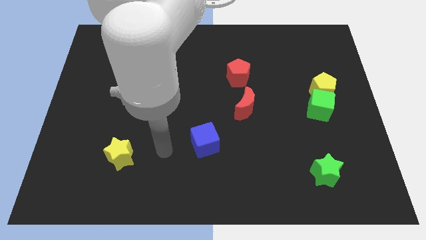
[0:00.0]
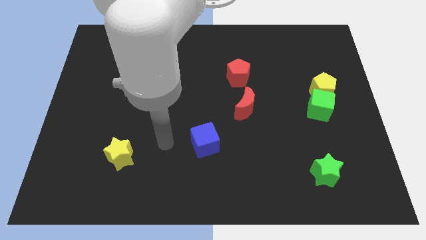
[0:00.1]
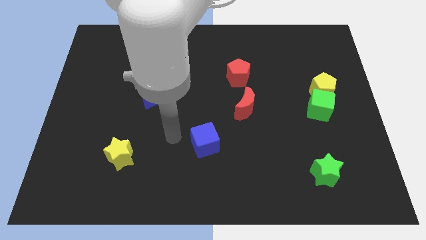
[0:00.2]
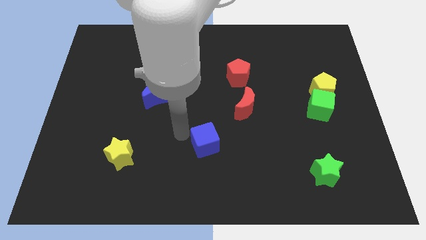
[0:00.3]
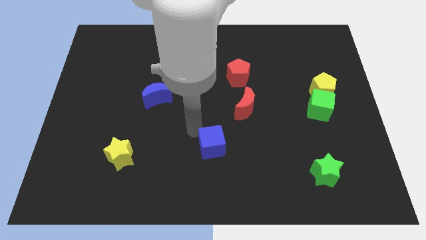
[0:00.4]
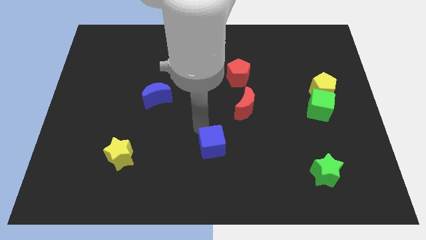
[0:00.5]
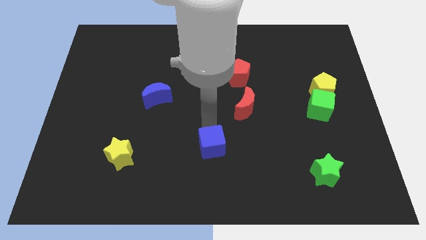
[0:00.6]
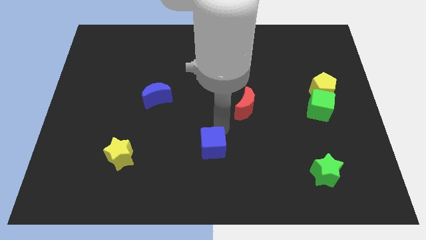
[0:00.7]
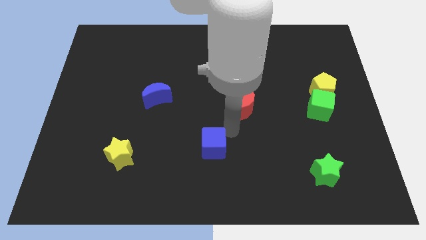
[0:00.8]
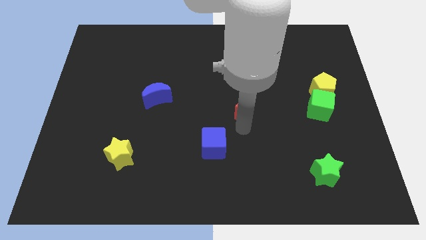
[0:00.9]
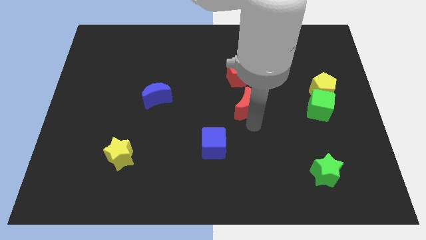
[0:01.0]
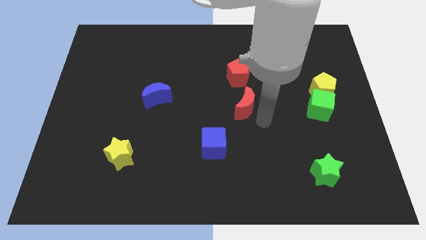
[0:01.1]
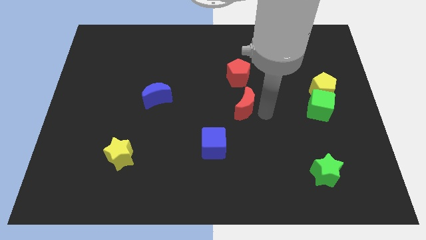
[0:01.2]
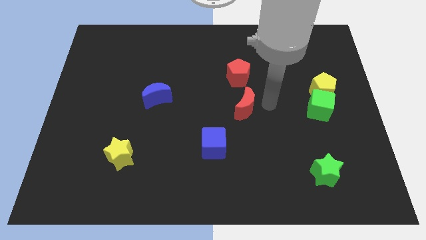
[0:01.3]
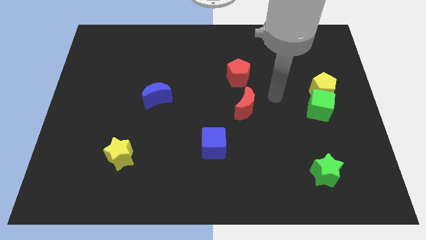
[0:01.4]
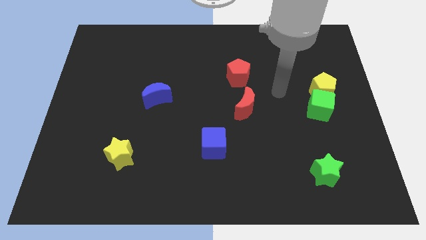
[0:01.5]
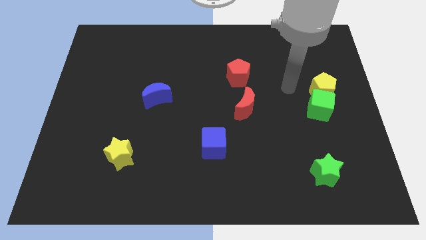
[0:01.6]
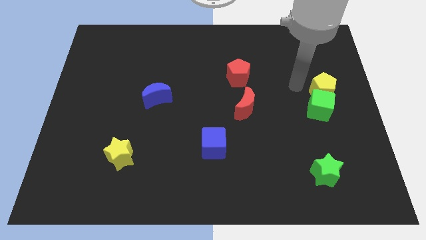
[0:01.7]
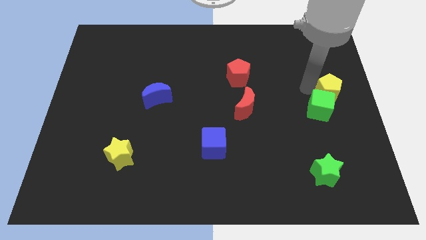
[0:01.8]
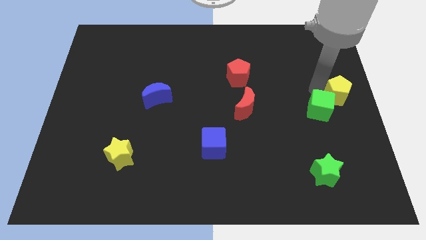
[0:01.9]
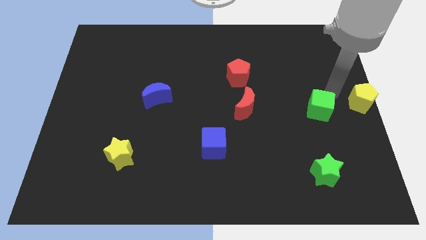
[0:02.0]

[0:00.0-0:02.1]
pull the green cube apart from the yellow pentagon

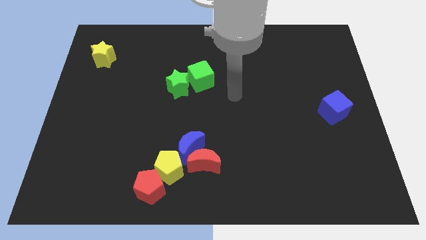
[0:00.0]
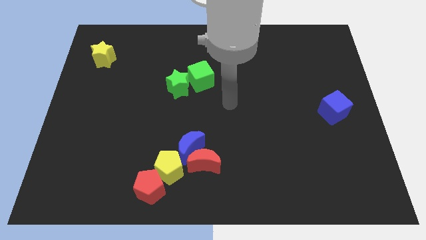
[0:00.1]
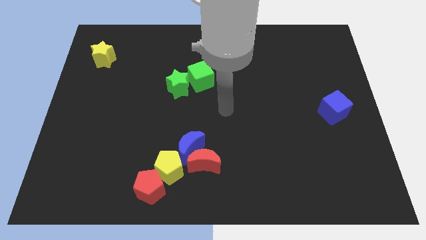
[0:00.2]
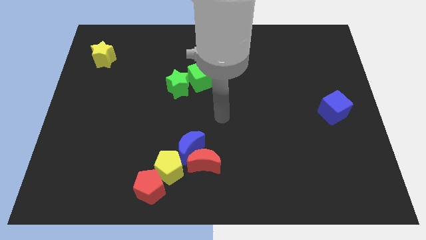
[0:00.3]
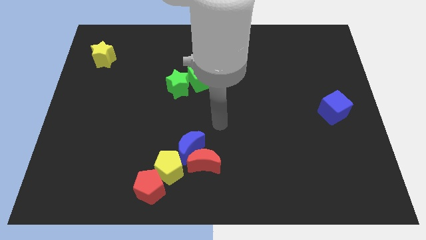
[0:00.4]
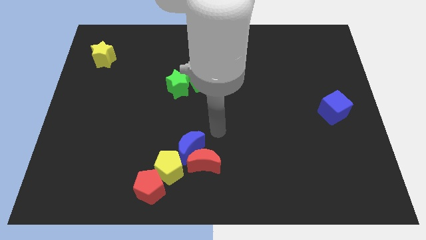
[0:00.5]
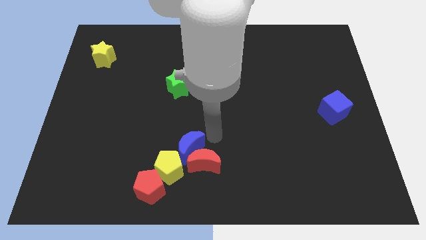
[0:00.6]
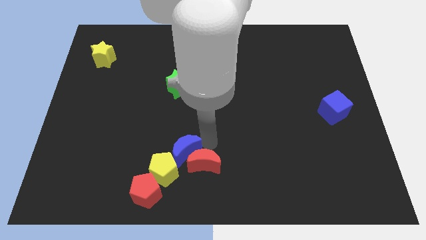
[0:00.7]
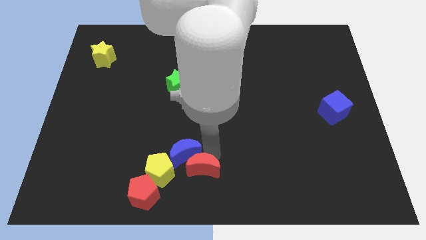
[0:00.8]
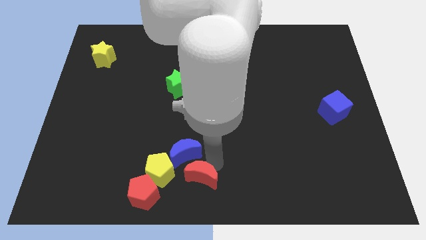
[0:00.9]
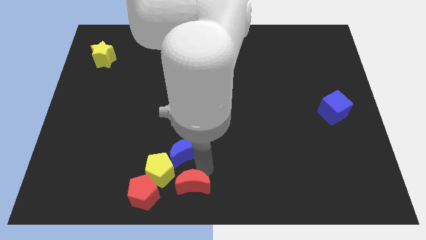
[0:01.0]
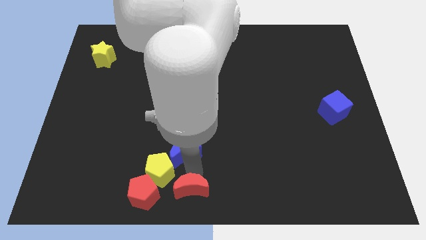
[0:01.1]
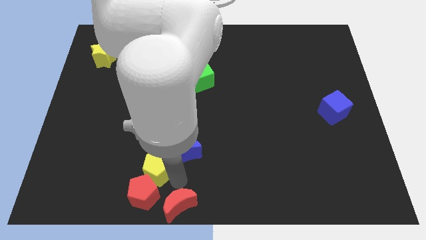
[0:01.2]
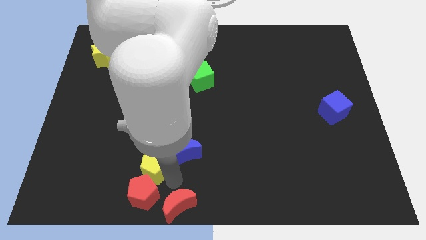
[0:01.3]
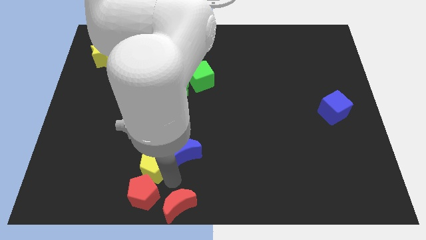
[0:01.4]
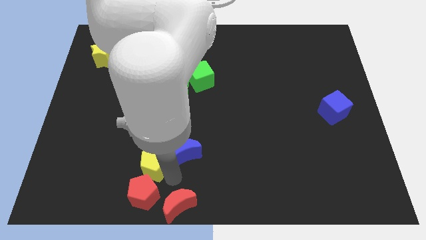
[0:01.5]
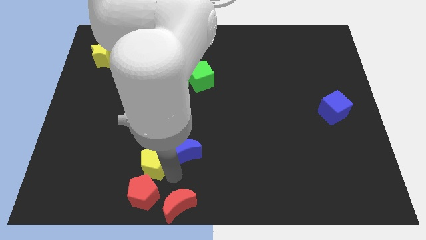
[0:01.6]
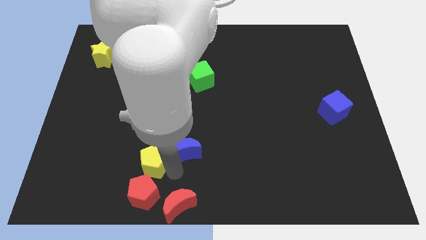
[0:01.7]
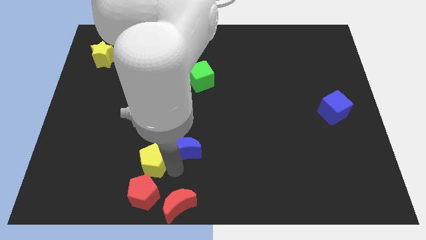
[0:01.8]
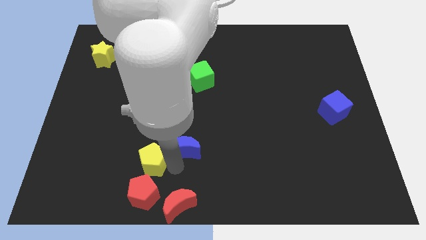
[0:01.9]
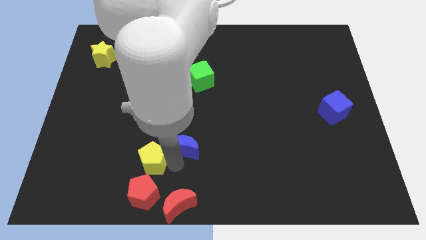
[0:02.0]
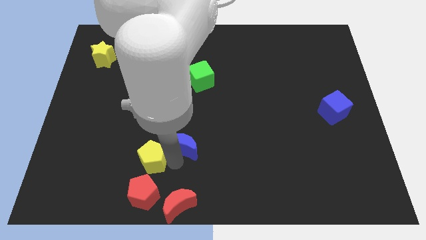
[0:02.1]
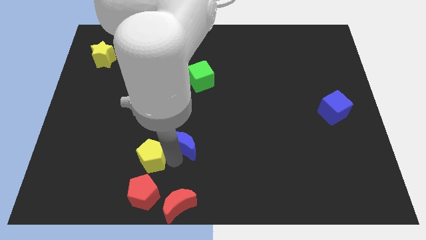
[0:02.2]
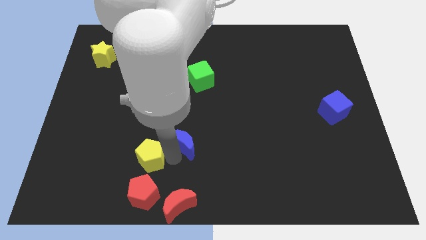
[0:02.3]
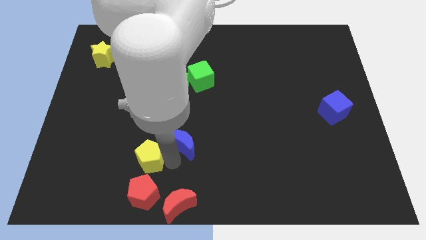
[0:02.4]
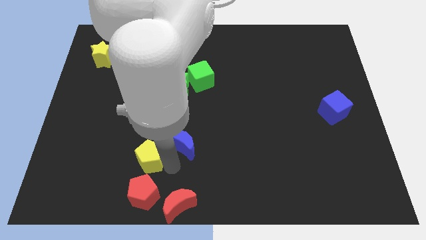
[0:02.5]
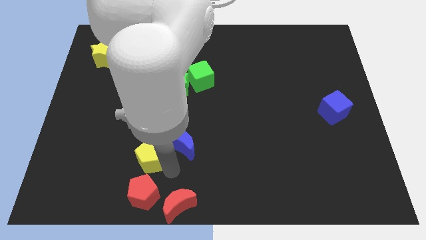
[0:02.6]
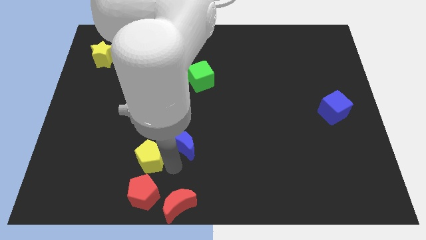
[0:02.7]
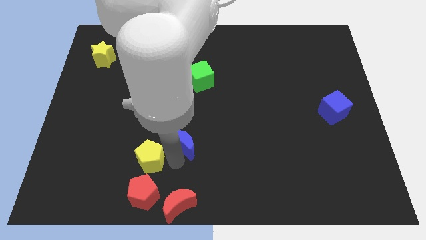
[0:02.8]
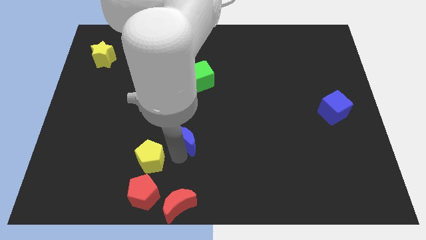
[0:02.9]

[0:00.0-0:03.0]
separate the blue moon from the red moon and yellow pentagon

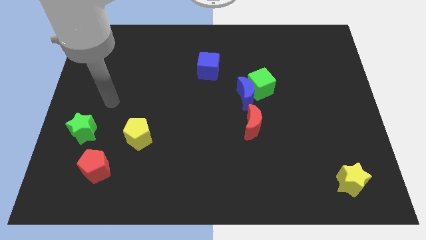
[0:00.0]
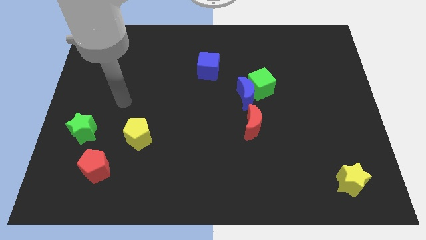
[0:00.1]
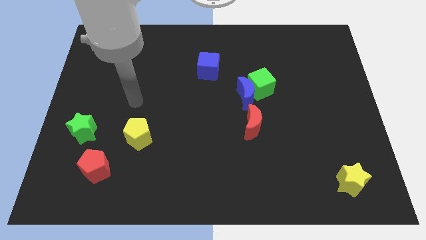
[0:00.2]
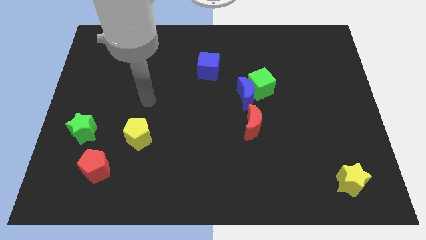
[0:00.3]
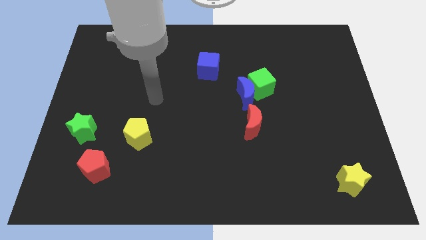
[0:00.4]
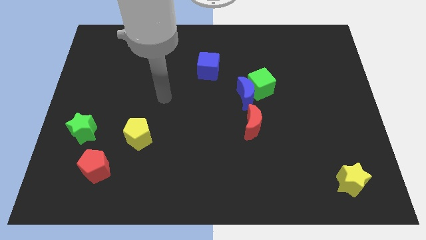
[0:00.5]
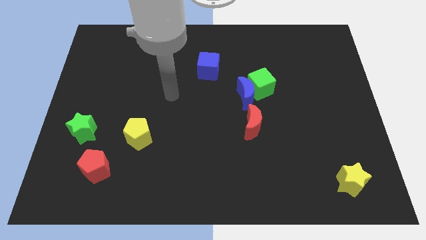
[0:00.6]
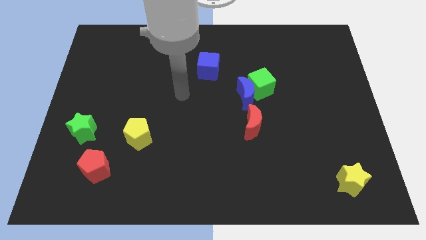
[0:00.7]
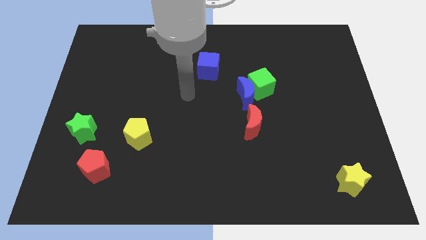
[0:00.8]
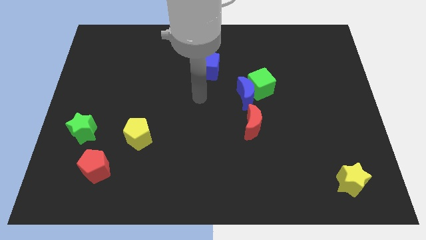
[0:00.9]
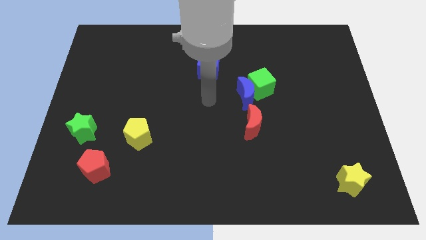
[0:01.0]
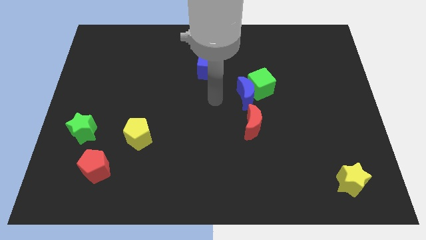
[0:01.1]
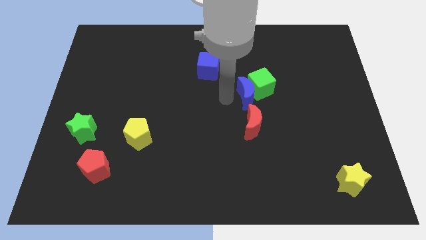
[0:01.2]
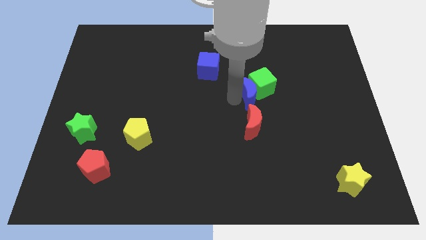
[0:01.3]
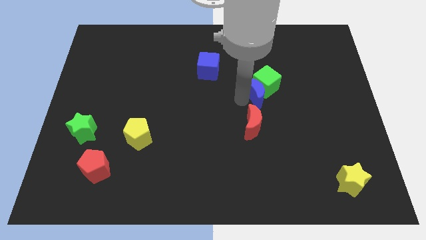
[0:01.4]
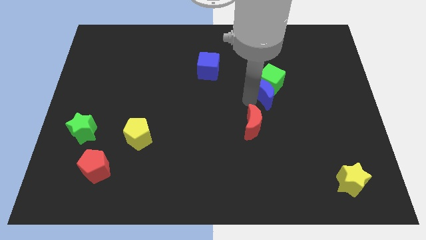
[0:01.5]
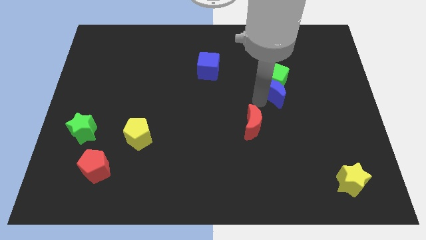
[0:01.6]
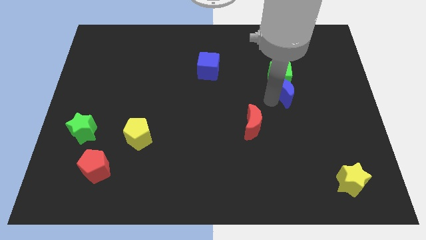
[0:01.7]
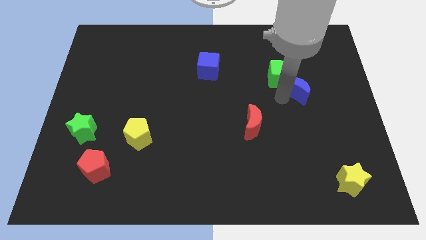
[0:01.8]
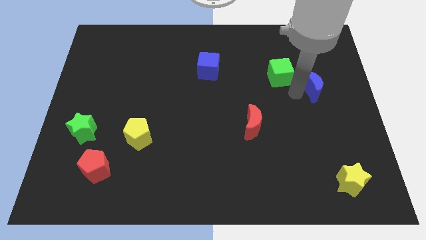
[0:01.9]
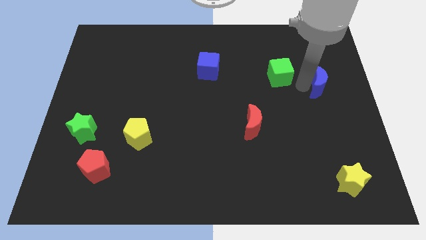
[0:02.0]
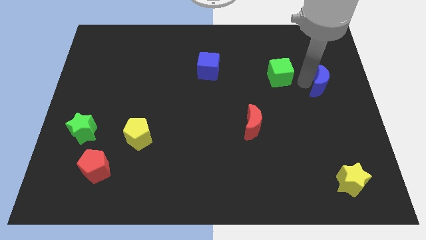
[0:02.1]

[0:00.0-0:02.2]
pull the green cube apart from the blue moon

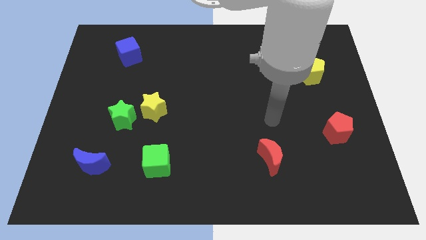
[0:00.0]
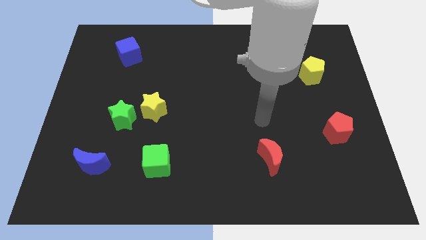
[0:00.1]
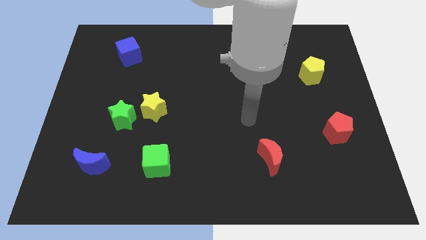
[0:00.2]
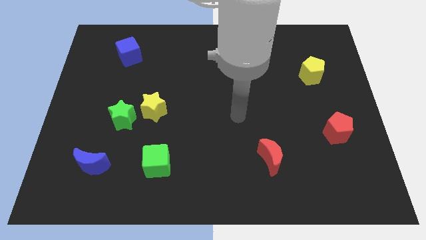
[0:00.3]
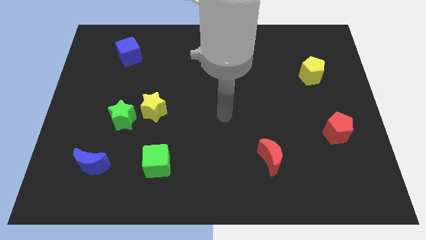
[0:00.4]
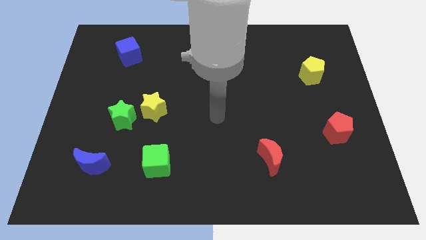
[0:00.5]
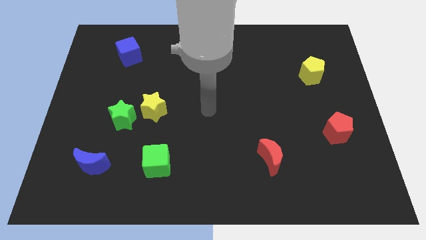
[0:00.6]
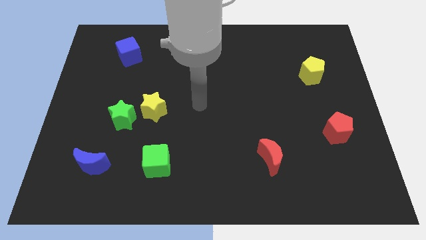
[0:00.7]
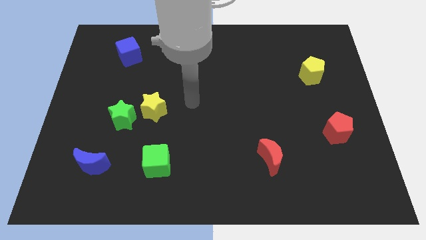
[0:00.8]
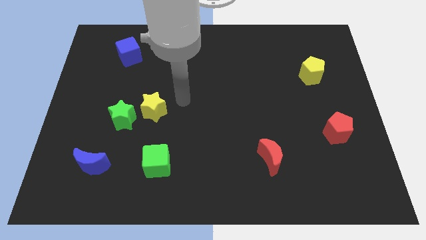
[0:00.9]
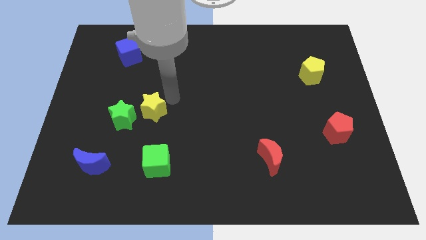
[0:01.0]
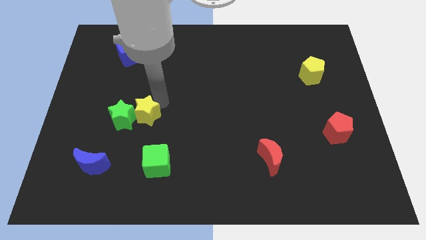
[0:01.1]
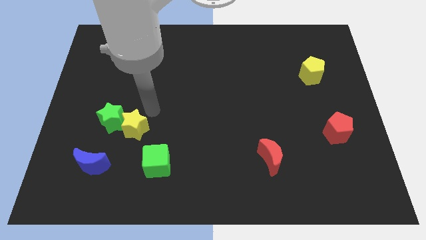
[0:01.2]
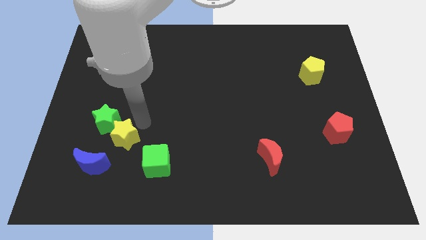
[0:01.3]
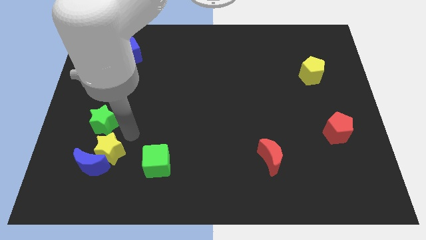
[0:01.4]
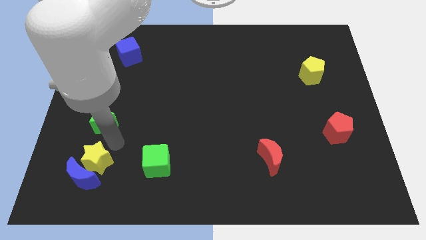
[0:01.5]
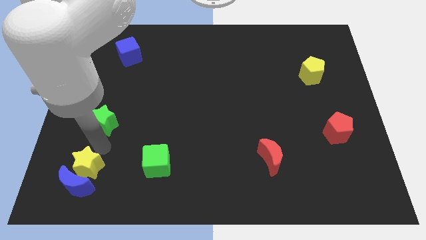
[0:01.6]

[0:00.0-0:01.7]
pull the green star apart from the yellow star

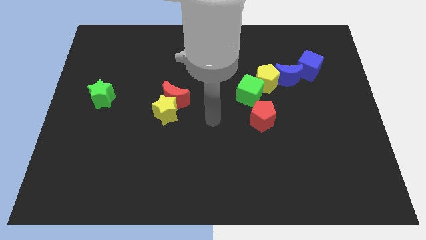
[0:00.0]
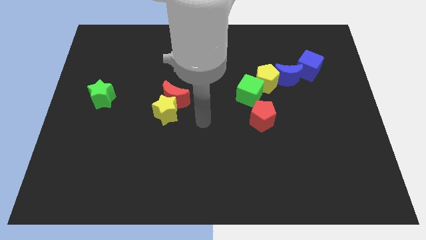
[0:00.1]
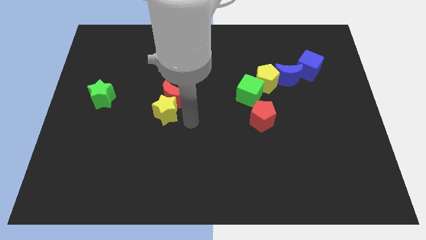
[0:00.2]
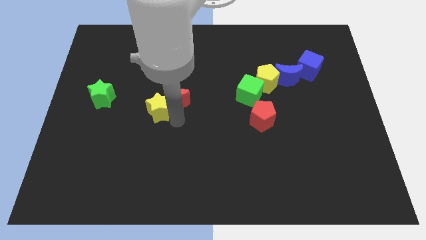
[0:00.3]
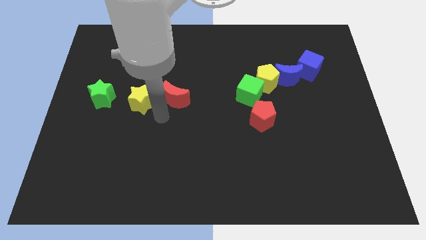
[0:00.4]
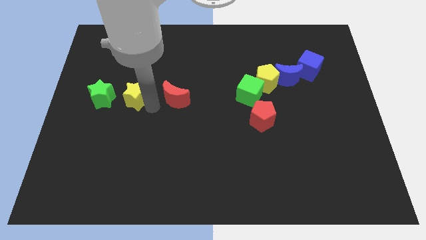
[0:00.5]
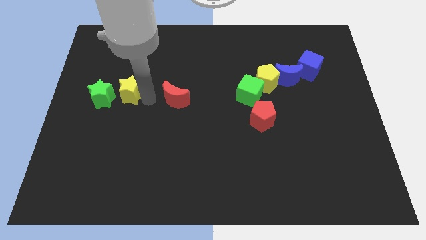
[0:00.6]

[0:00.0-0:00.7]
move the red moon away from the yellow star
